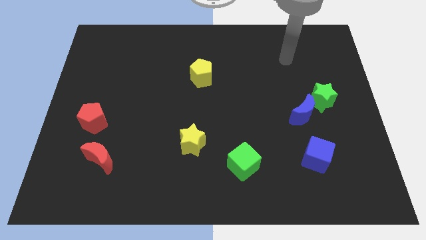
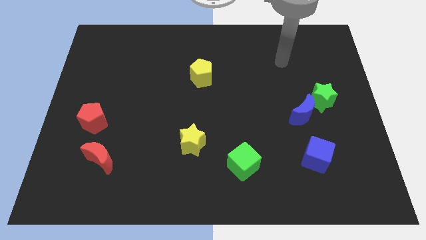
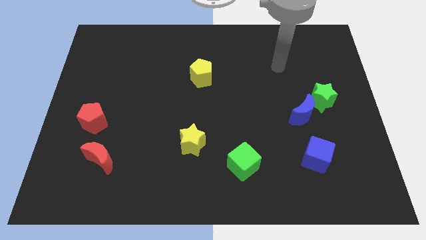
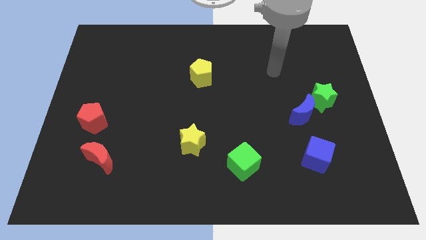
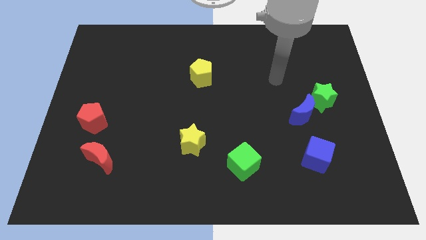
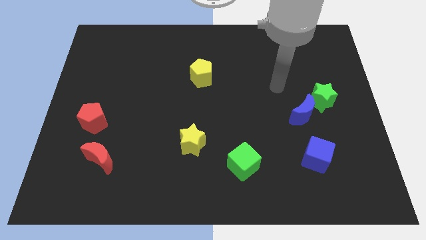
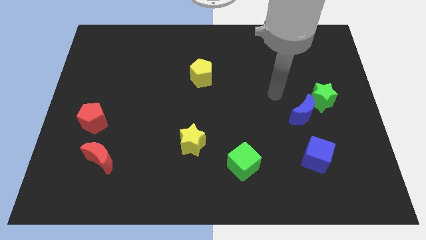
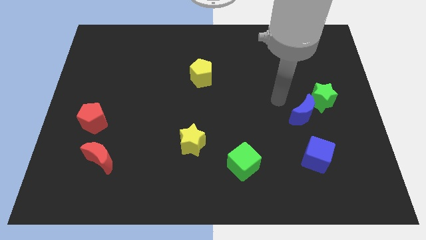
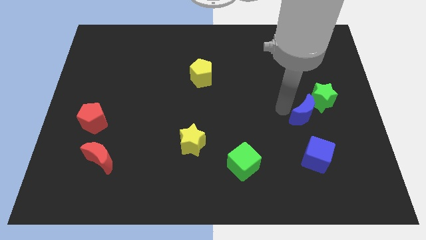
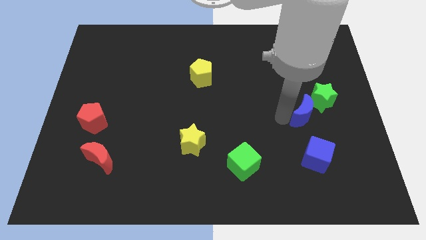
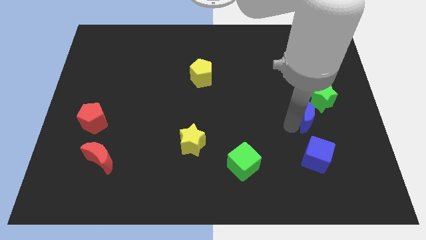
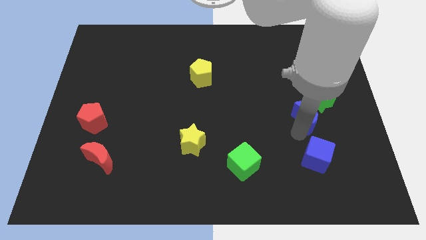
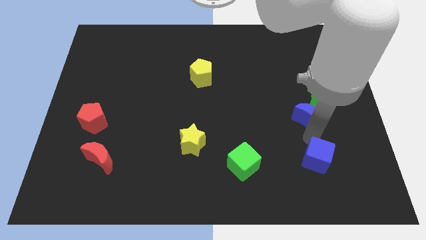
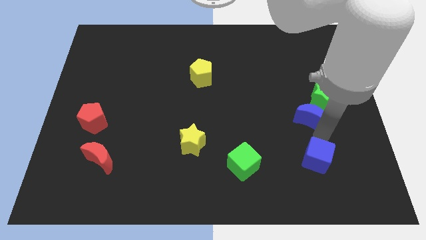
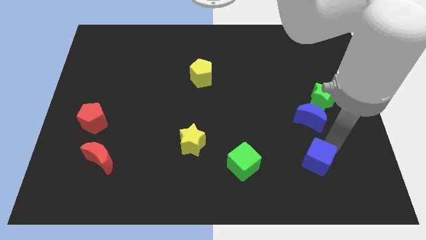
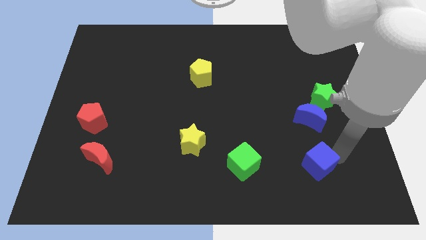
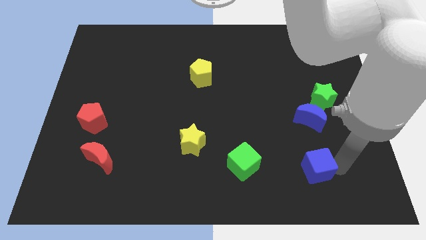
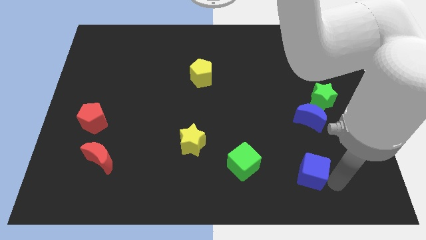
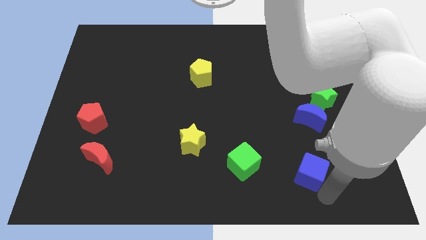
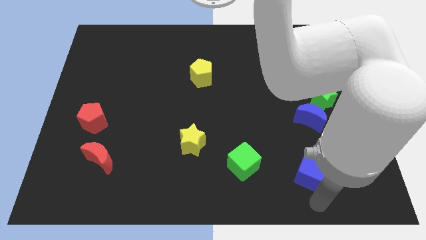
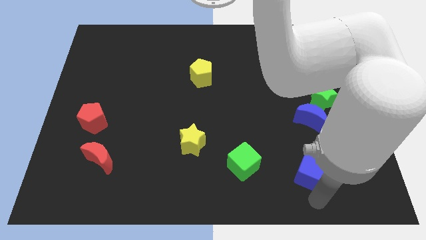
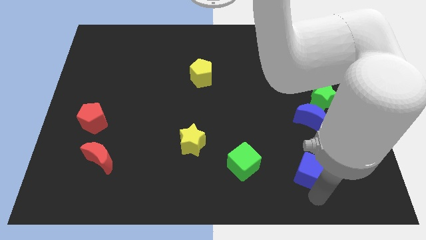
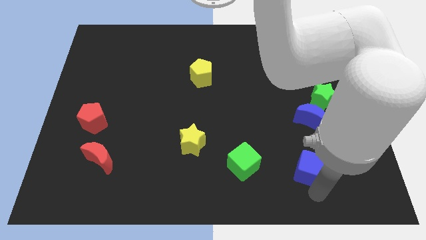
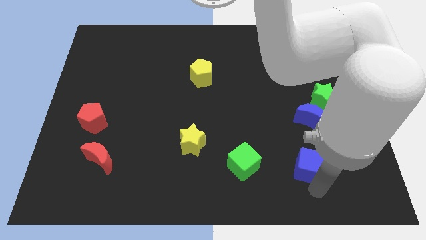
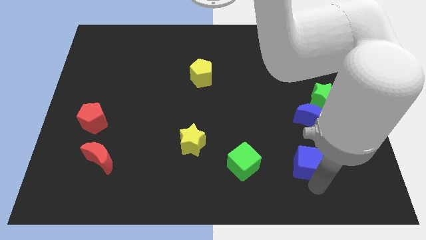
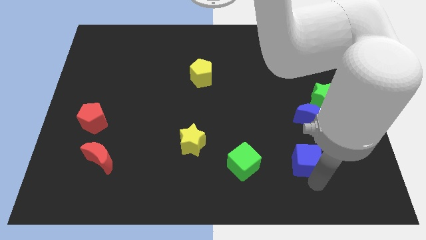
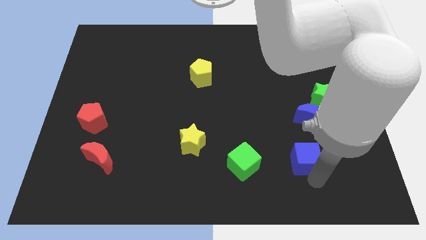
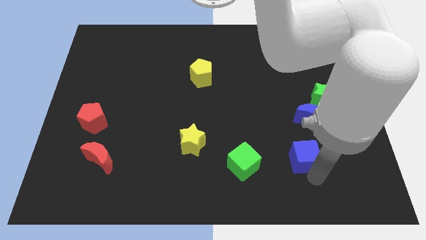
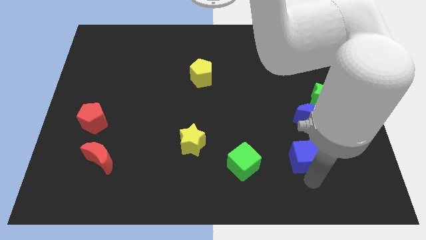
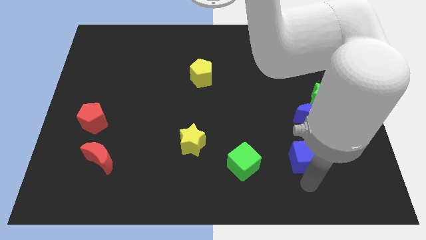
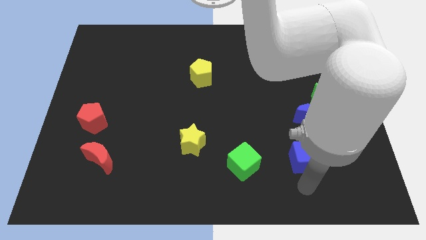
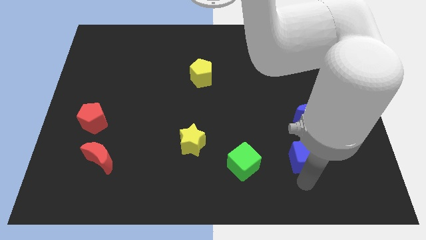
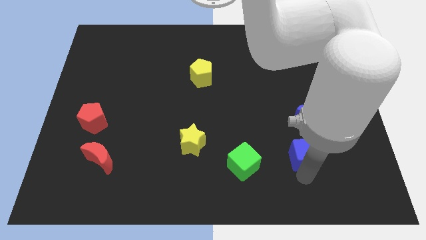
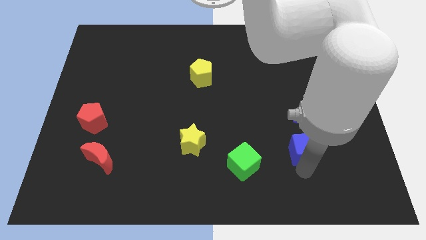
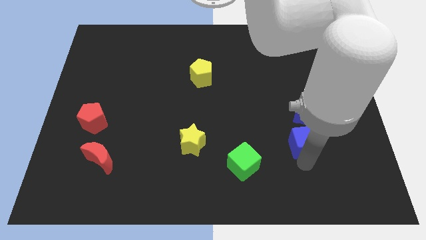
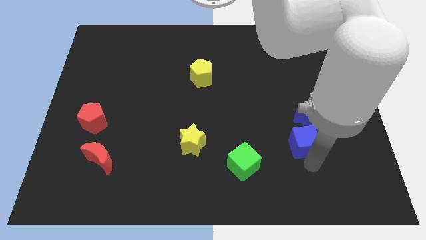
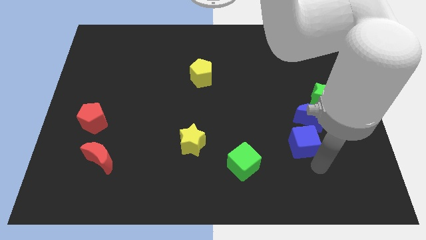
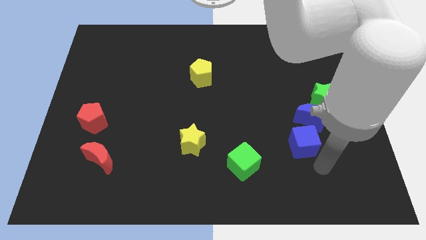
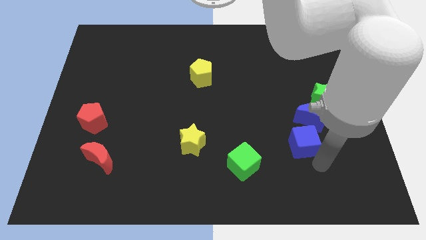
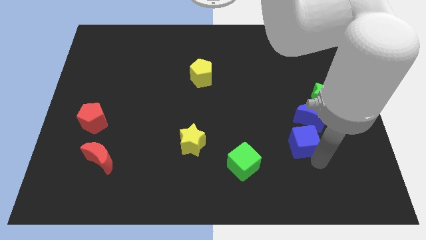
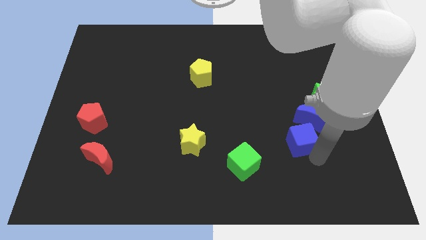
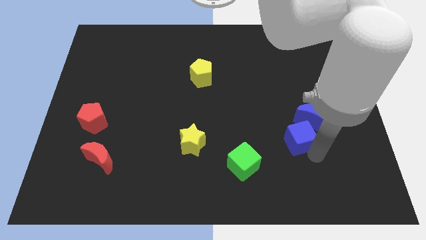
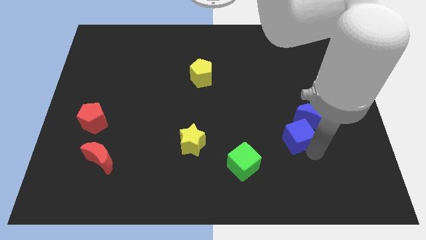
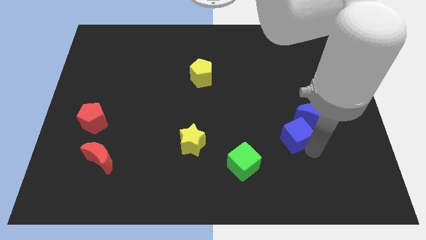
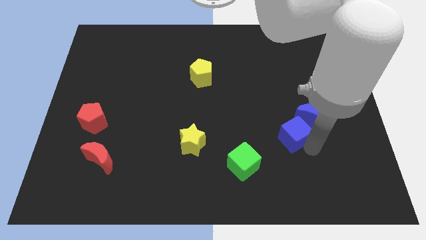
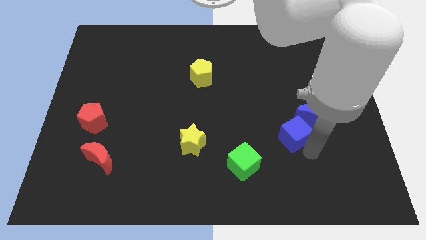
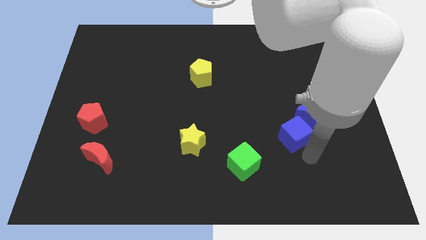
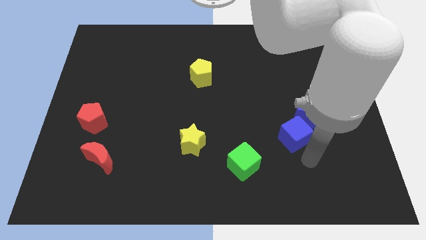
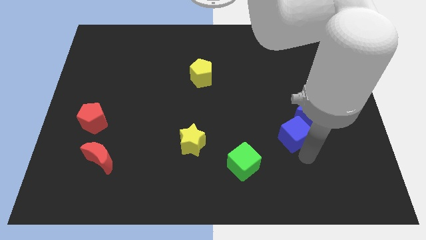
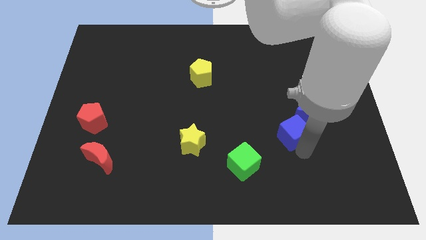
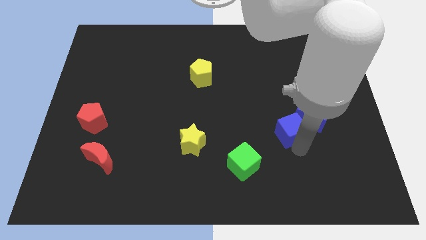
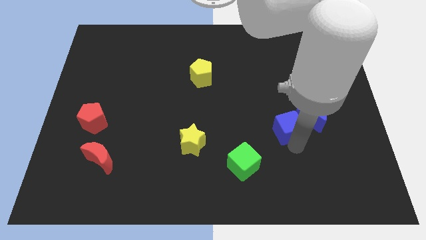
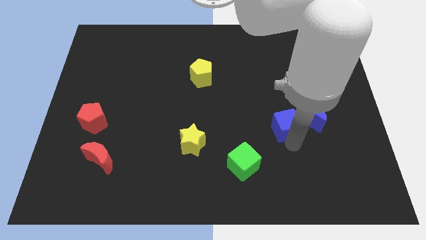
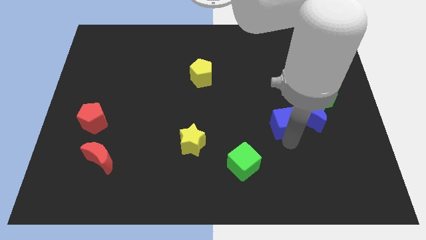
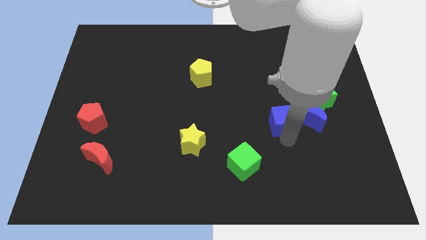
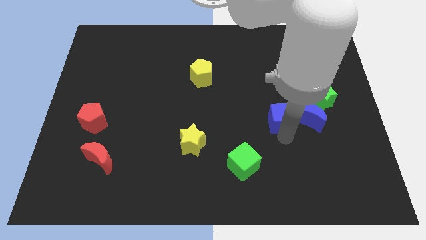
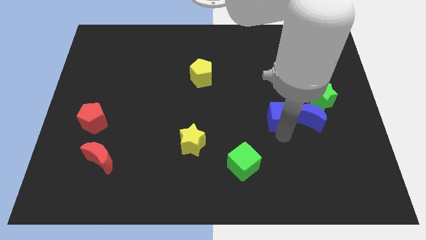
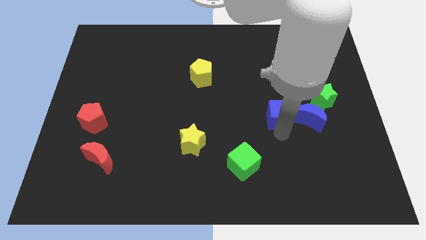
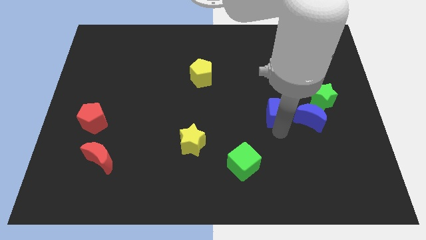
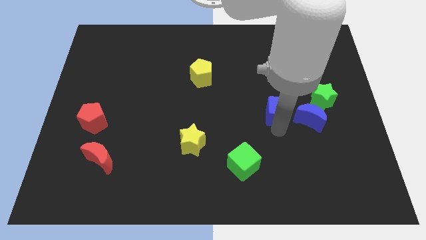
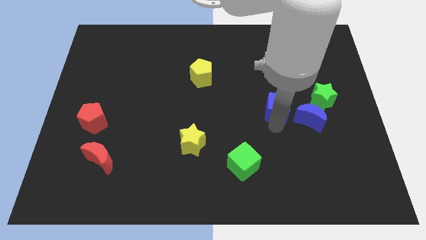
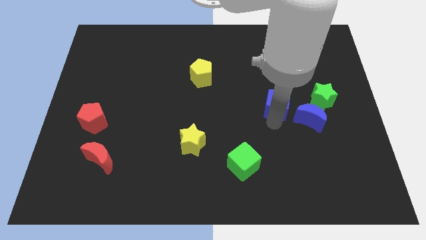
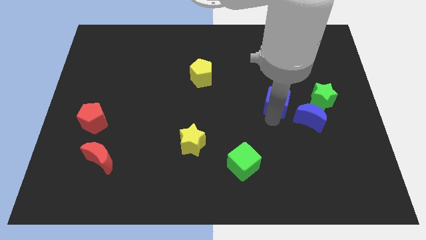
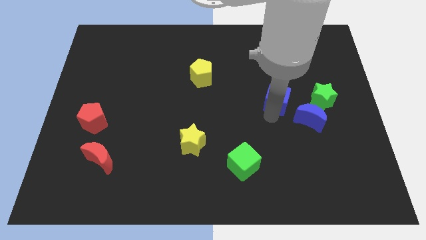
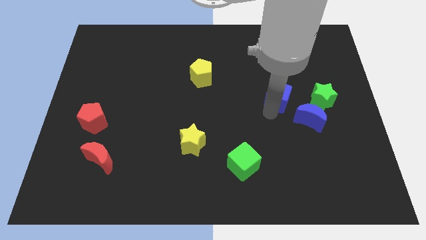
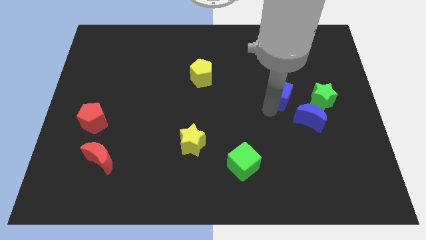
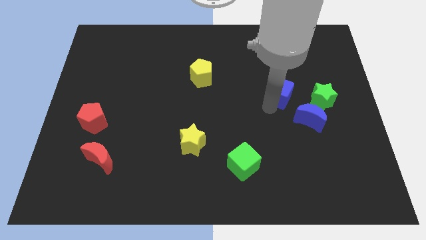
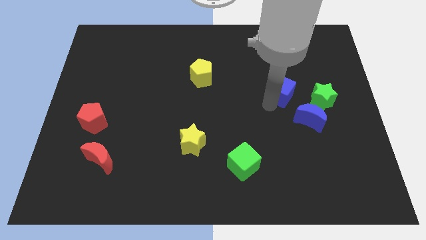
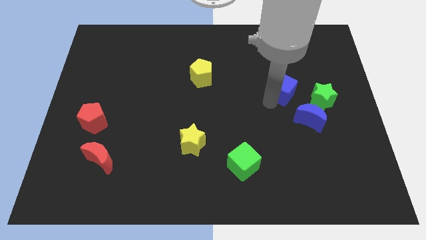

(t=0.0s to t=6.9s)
slide the blue cube to the top left side of the green star

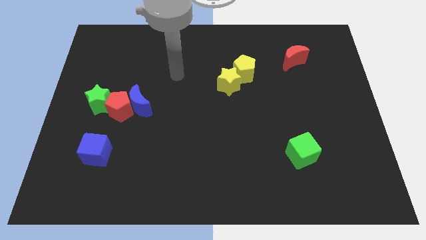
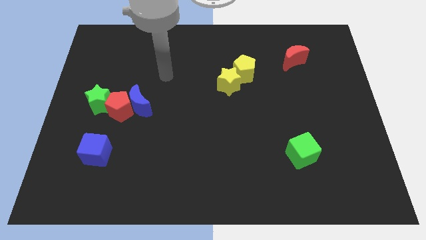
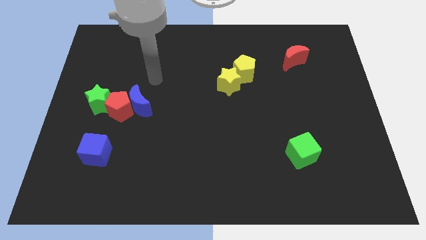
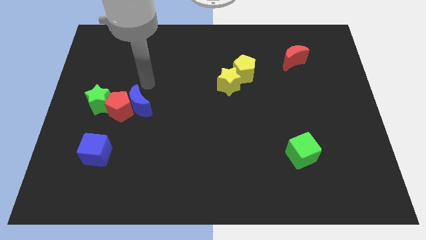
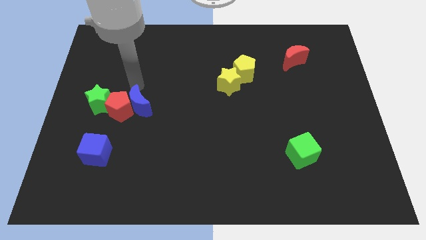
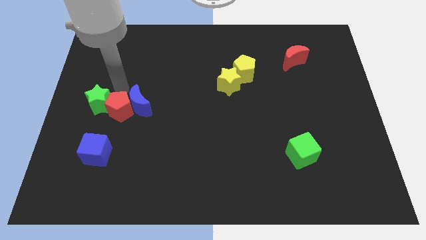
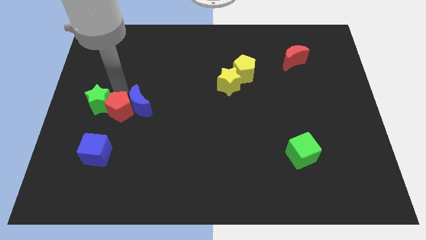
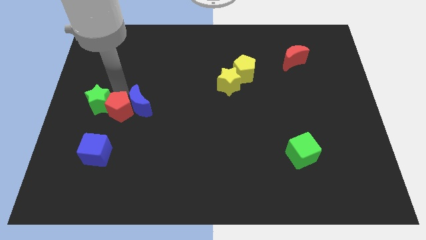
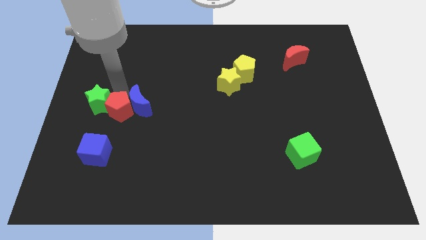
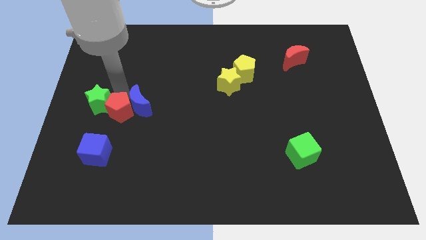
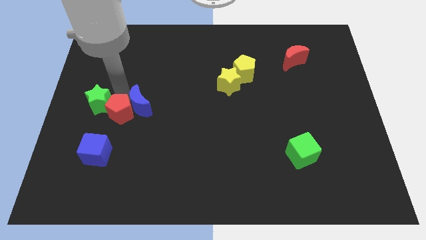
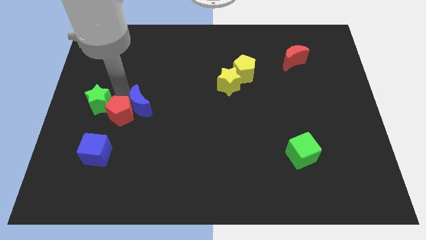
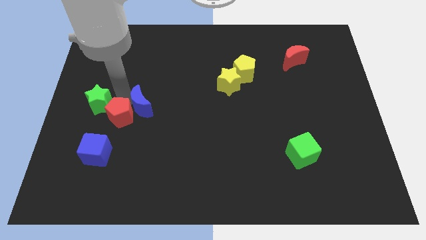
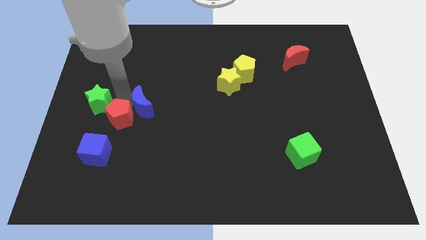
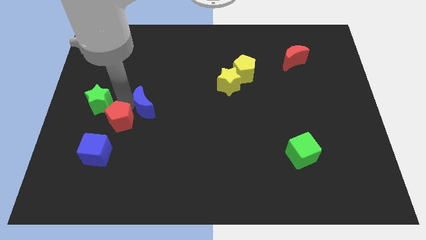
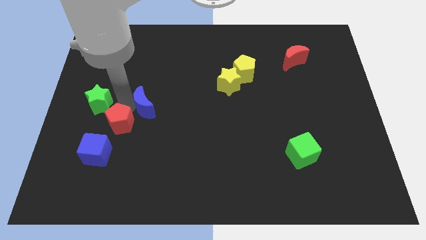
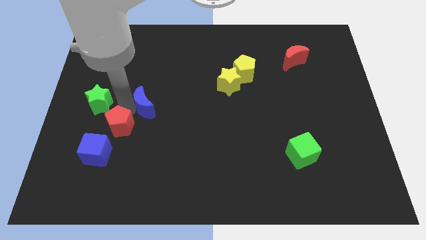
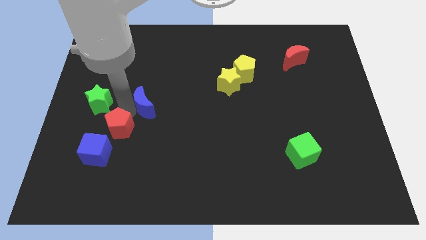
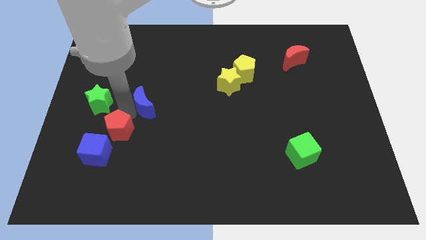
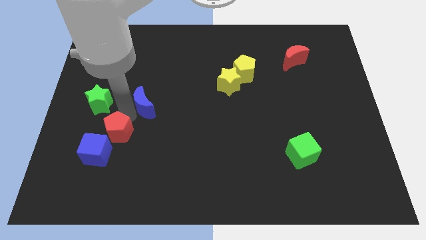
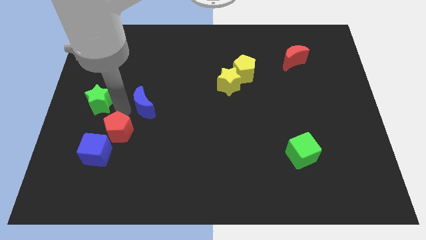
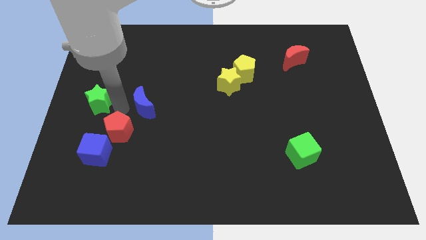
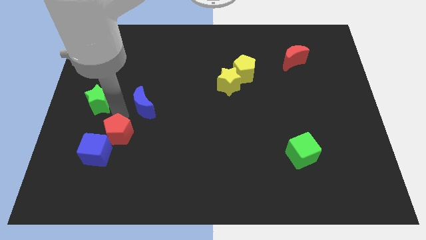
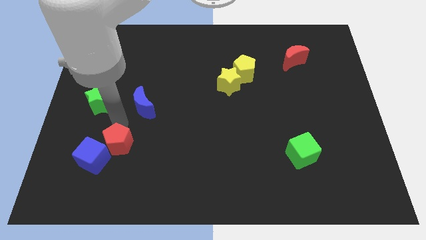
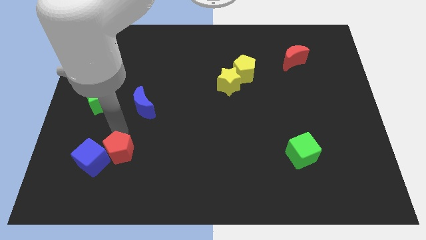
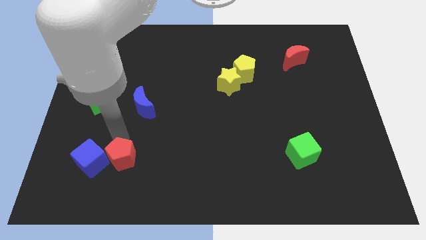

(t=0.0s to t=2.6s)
move the red pentagon to the bottom right side of the blue cube
